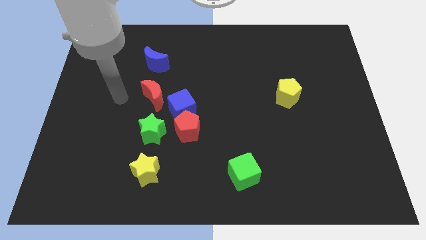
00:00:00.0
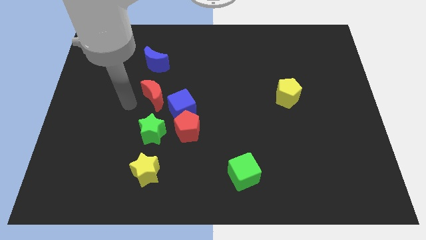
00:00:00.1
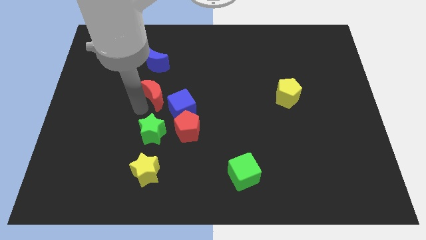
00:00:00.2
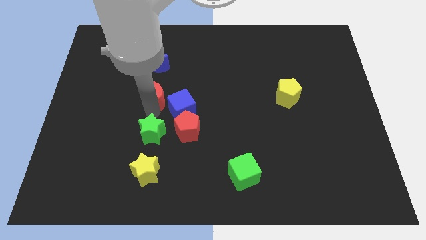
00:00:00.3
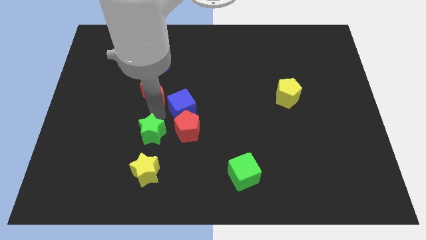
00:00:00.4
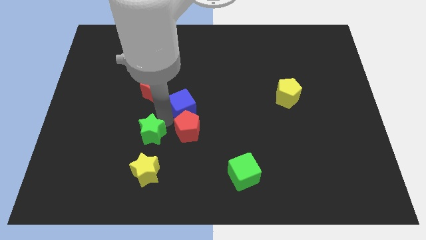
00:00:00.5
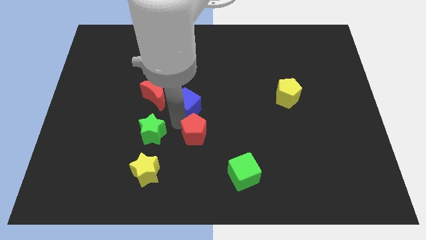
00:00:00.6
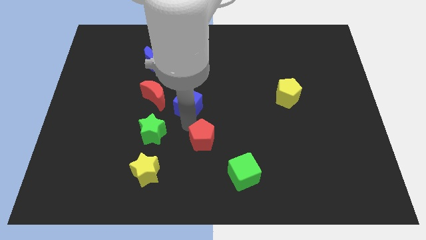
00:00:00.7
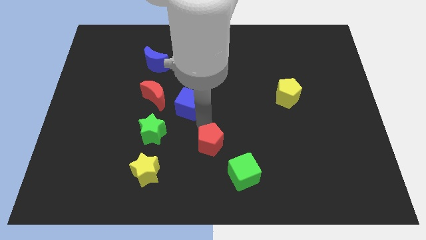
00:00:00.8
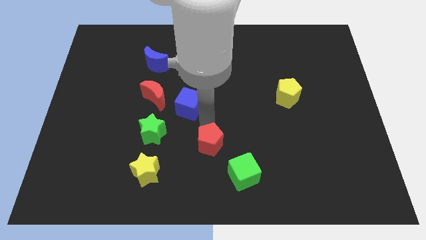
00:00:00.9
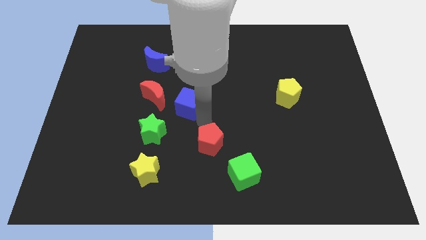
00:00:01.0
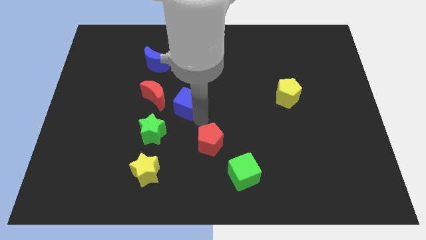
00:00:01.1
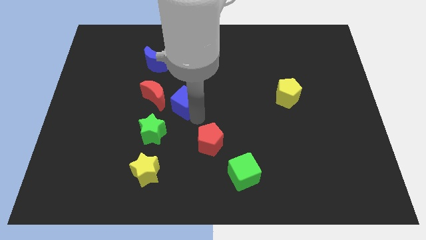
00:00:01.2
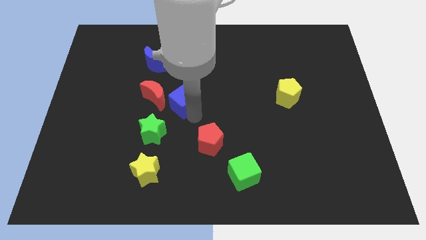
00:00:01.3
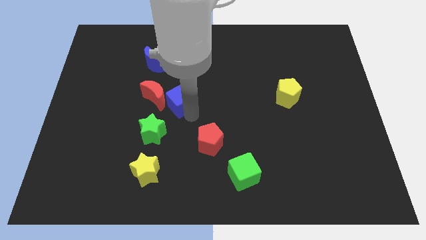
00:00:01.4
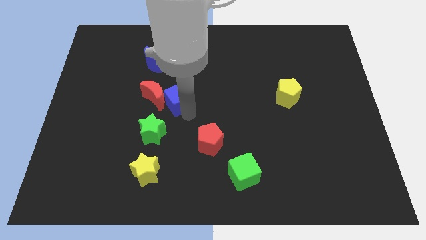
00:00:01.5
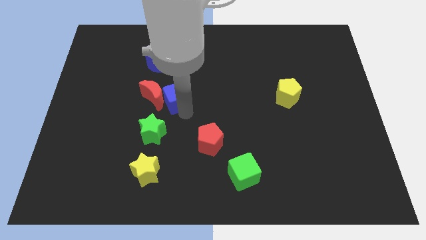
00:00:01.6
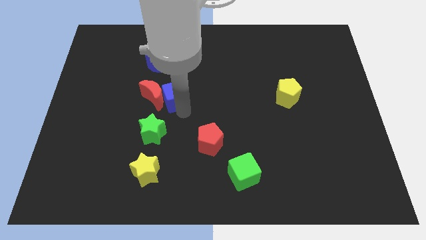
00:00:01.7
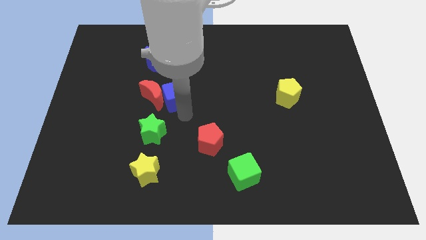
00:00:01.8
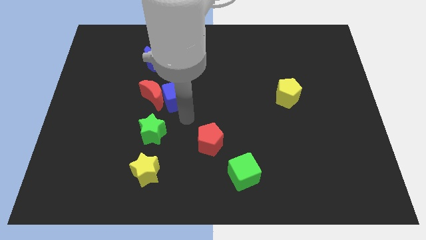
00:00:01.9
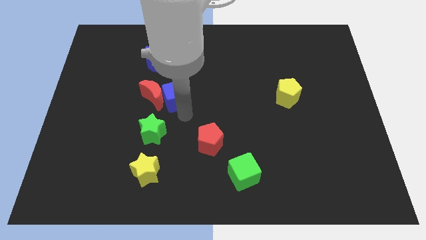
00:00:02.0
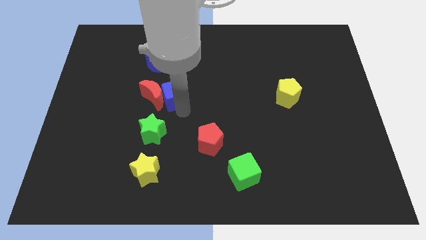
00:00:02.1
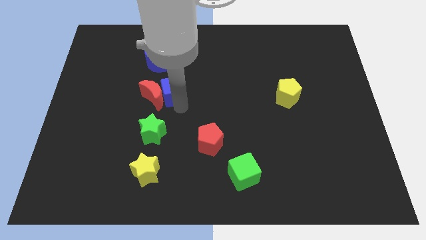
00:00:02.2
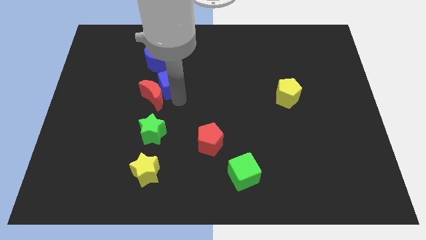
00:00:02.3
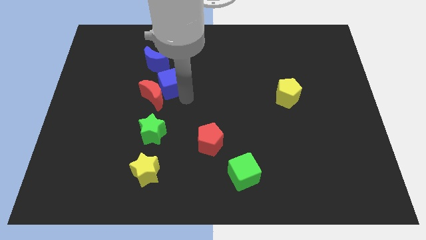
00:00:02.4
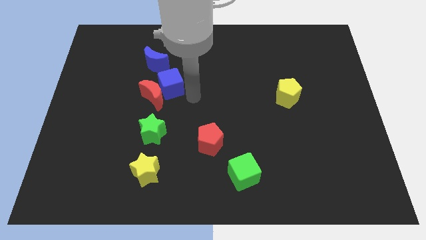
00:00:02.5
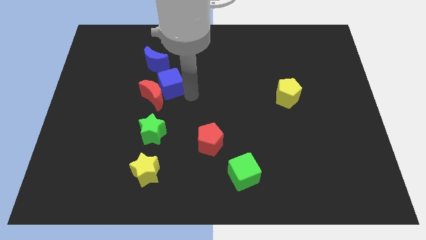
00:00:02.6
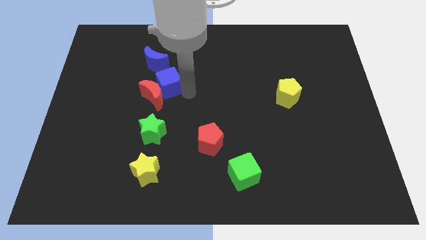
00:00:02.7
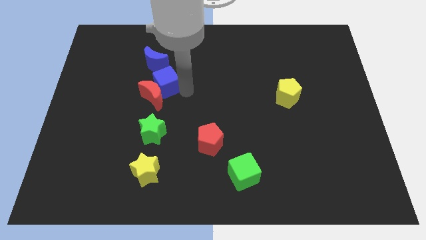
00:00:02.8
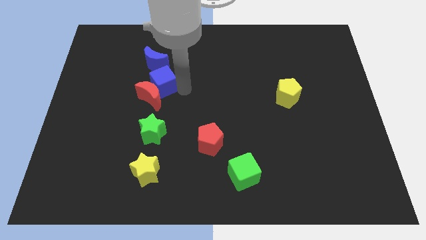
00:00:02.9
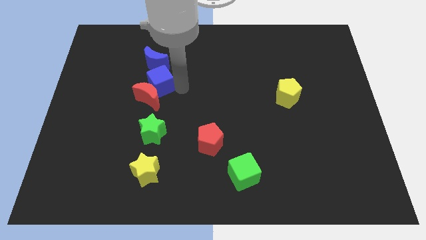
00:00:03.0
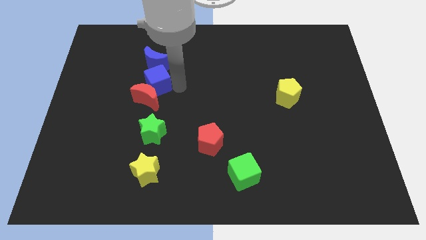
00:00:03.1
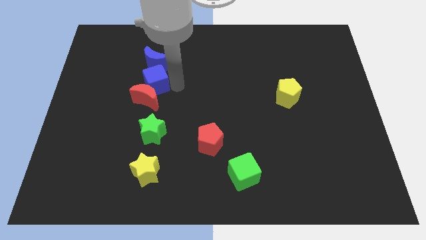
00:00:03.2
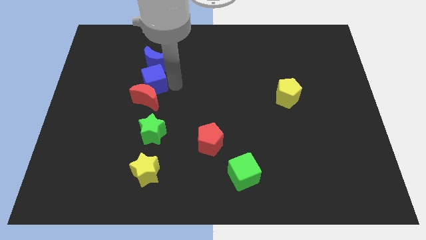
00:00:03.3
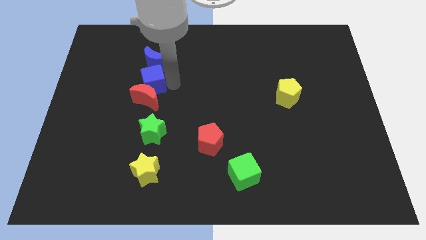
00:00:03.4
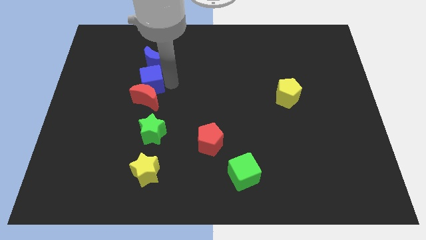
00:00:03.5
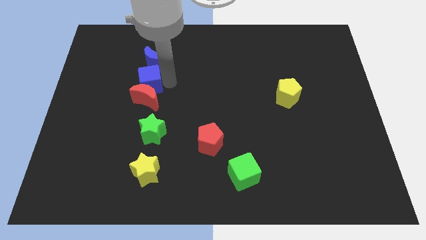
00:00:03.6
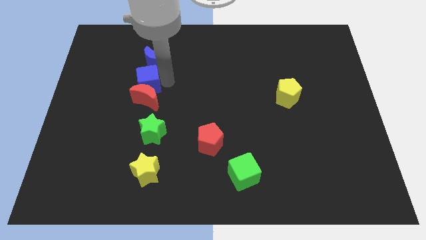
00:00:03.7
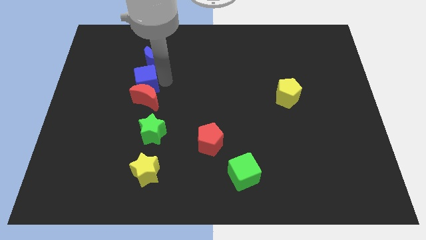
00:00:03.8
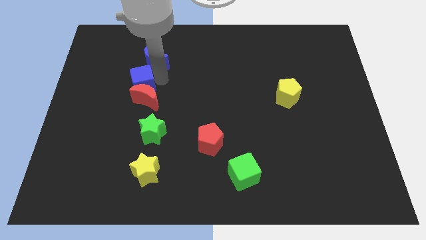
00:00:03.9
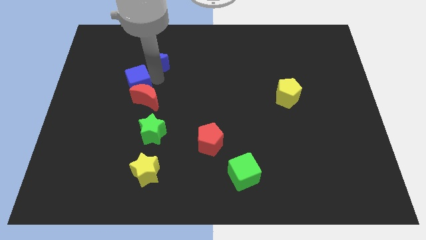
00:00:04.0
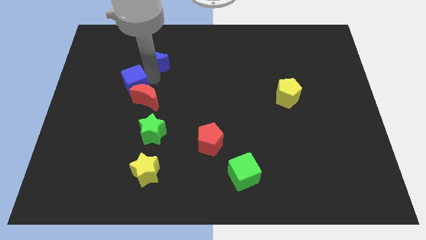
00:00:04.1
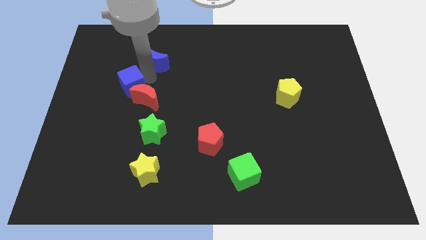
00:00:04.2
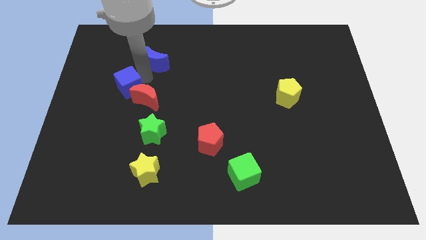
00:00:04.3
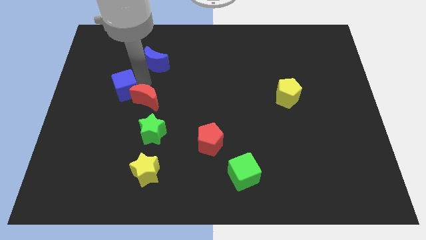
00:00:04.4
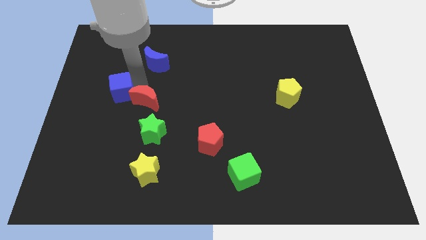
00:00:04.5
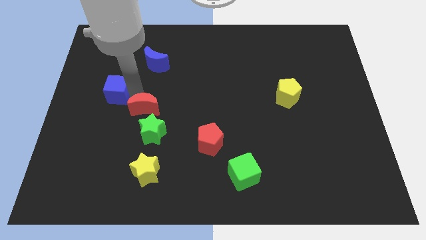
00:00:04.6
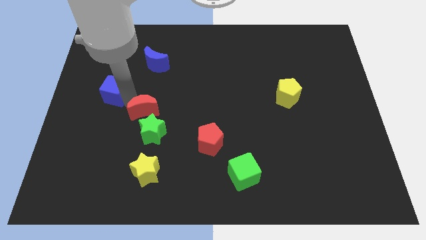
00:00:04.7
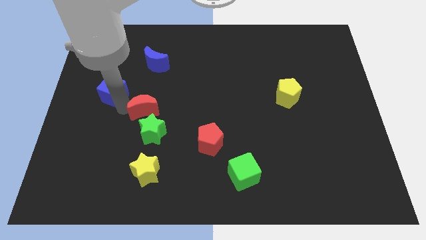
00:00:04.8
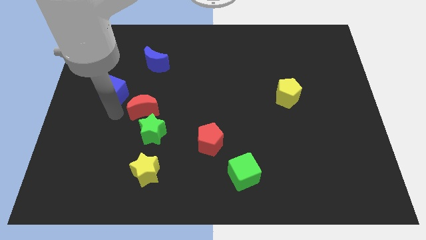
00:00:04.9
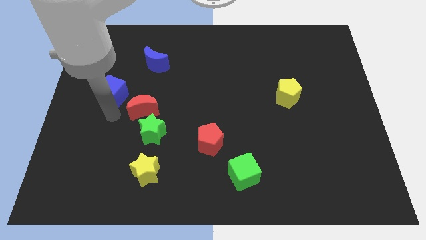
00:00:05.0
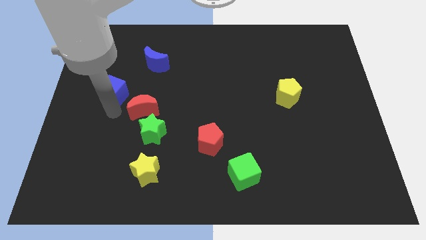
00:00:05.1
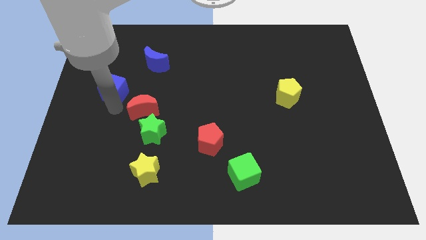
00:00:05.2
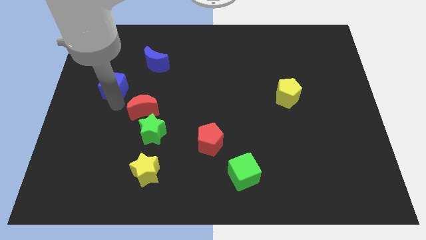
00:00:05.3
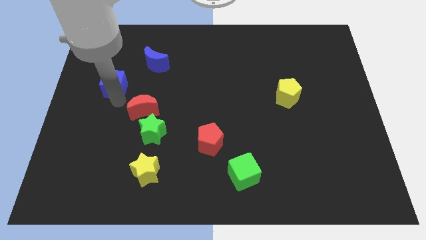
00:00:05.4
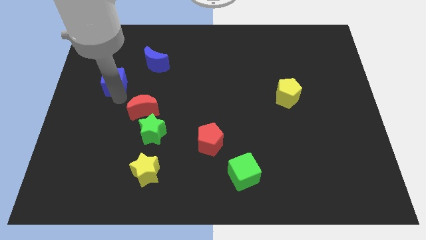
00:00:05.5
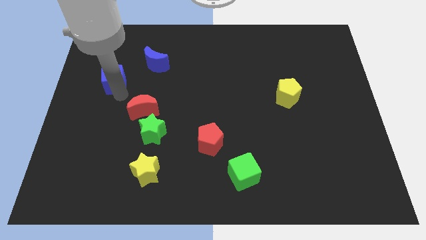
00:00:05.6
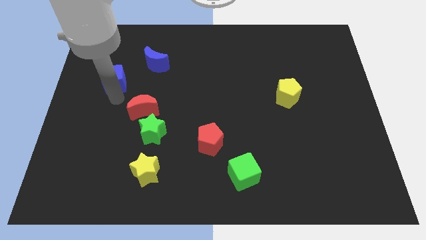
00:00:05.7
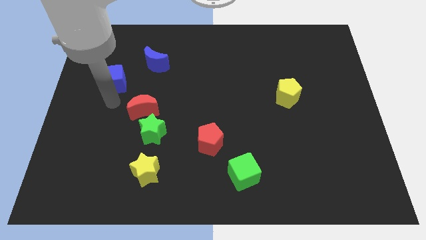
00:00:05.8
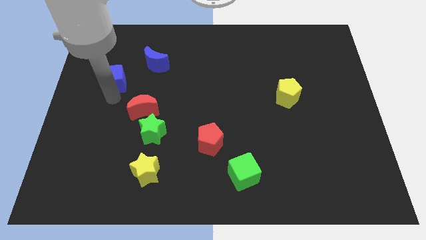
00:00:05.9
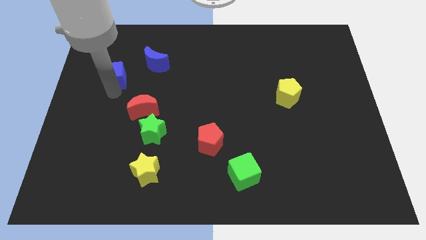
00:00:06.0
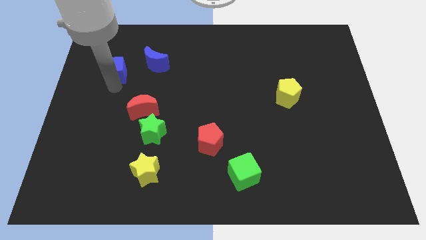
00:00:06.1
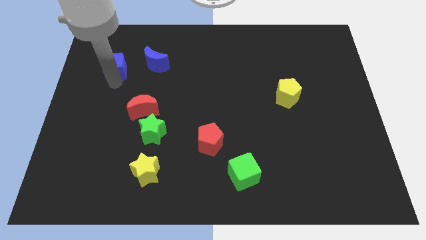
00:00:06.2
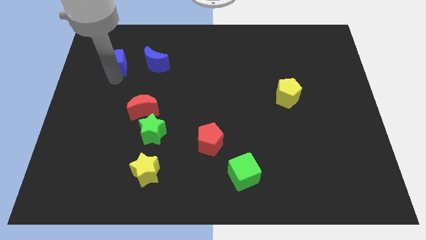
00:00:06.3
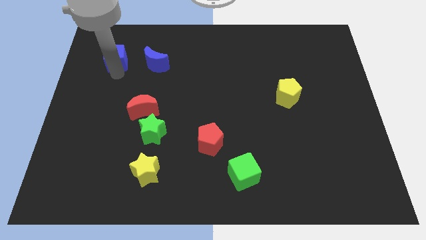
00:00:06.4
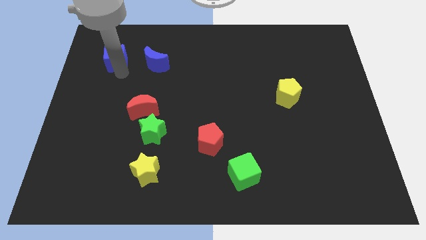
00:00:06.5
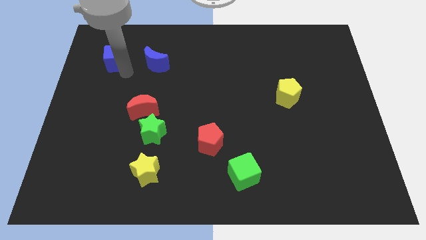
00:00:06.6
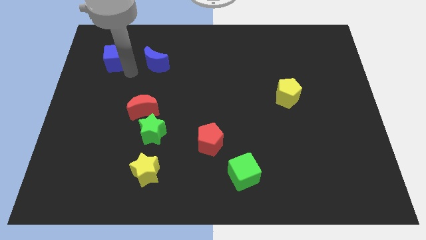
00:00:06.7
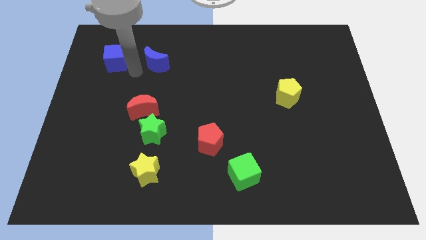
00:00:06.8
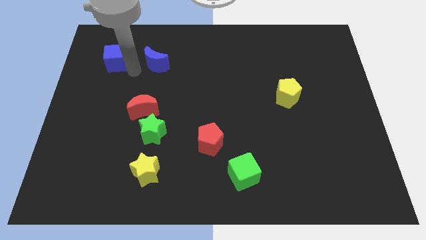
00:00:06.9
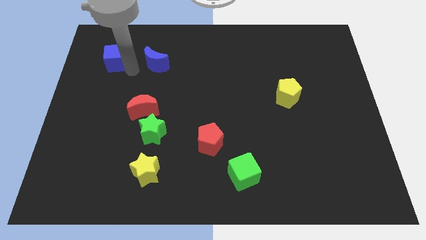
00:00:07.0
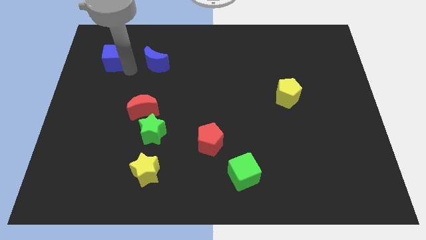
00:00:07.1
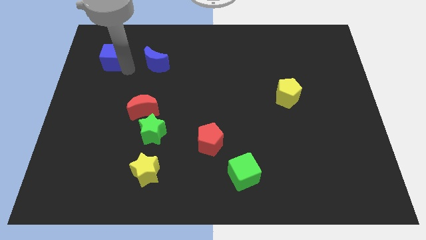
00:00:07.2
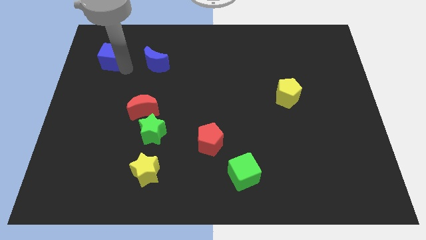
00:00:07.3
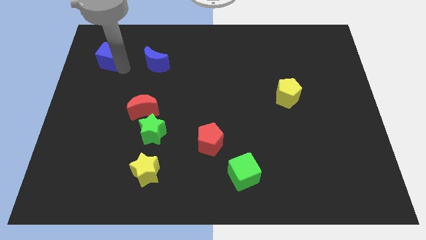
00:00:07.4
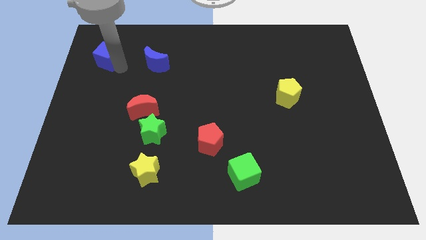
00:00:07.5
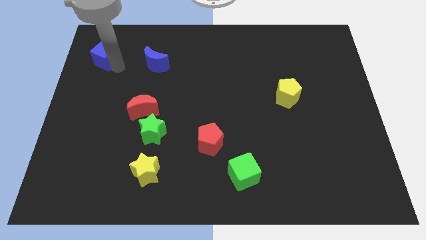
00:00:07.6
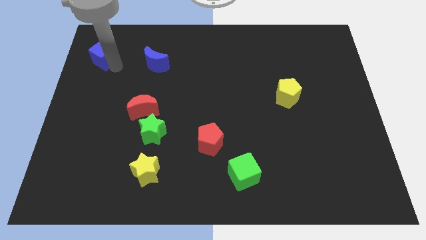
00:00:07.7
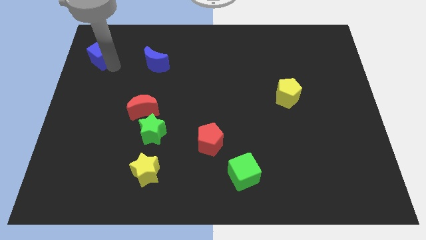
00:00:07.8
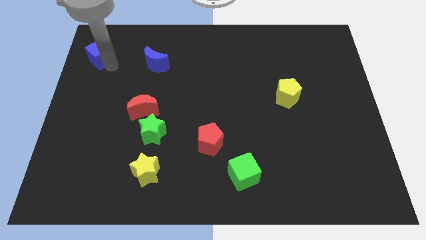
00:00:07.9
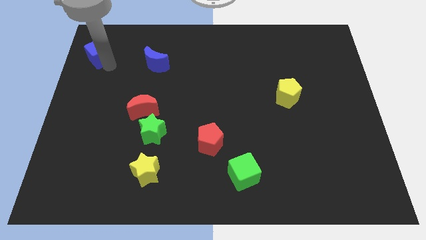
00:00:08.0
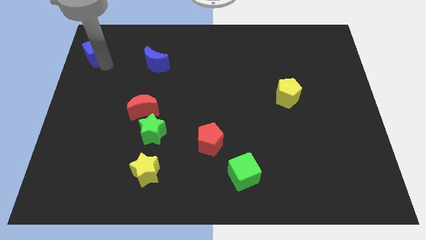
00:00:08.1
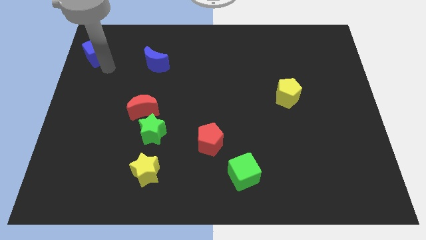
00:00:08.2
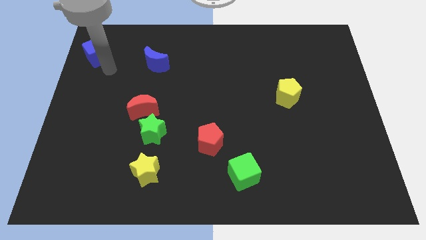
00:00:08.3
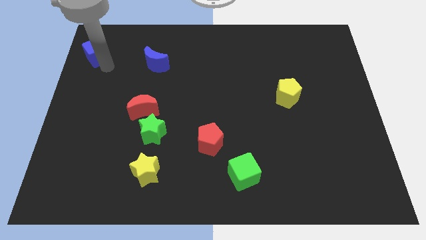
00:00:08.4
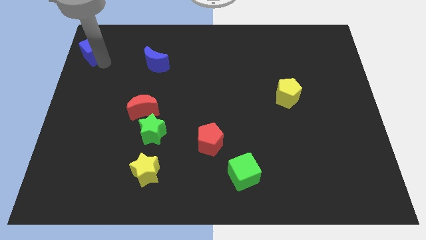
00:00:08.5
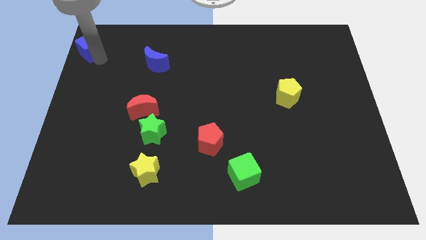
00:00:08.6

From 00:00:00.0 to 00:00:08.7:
move the blue cube to the top left
